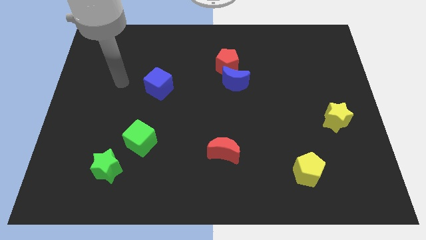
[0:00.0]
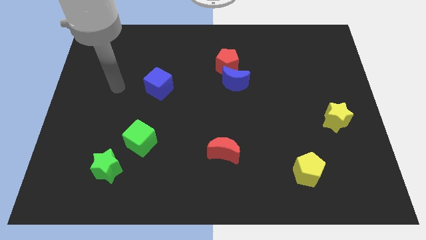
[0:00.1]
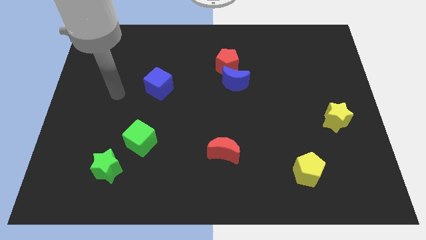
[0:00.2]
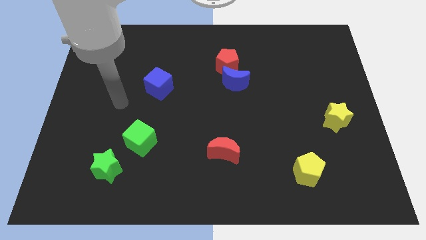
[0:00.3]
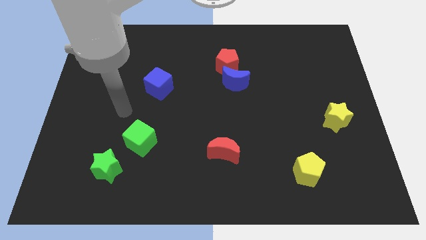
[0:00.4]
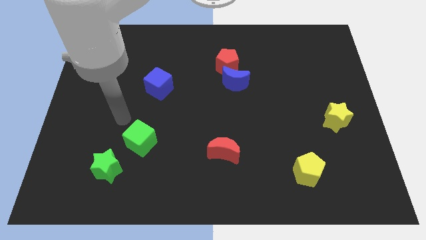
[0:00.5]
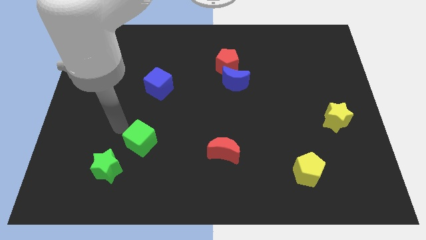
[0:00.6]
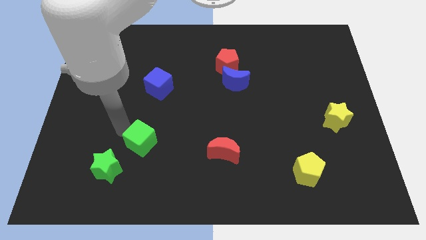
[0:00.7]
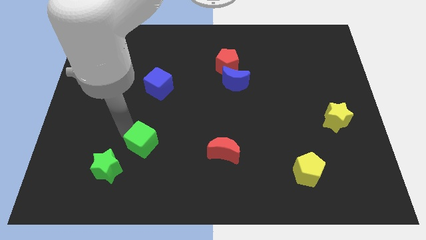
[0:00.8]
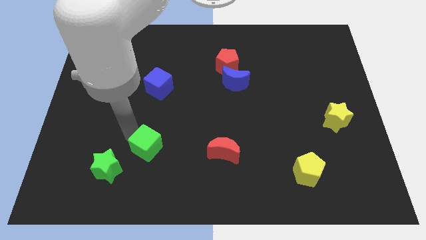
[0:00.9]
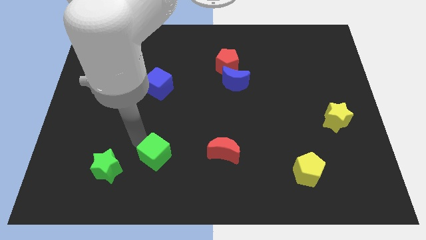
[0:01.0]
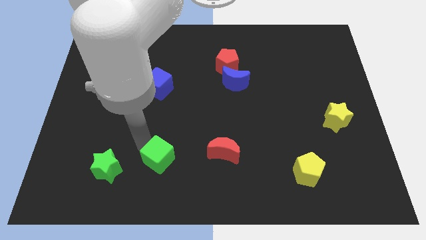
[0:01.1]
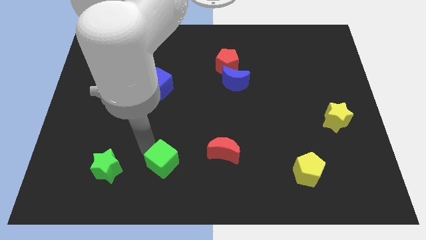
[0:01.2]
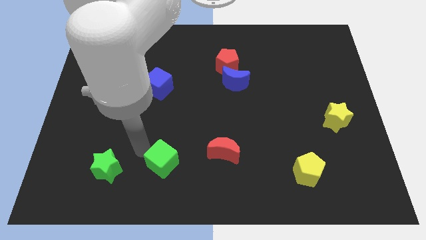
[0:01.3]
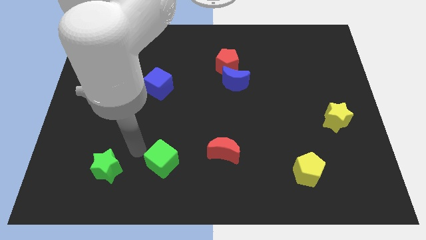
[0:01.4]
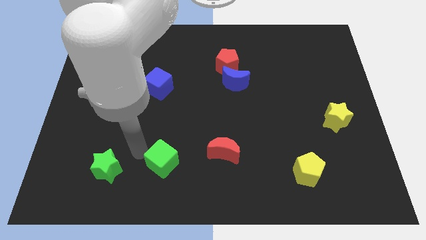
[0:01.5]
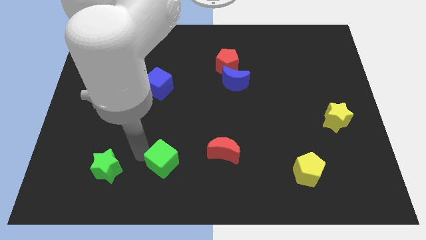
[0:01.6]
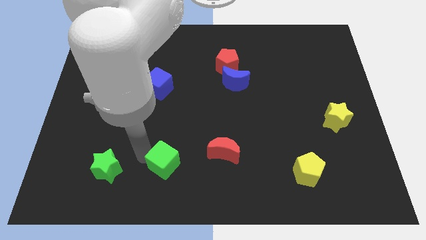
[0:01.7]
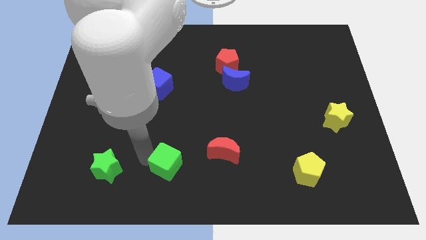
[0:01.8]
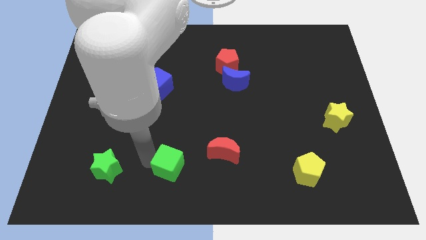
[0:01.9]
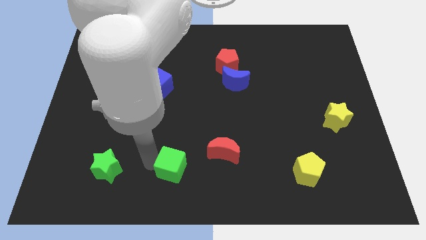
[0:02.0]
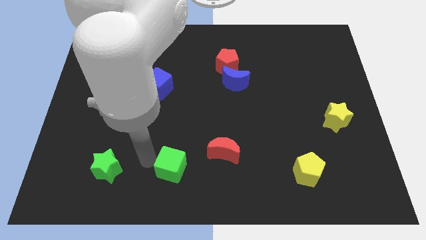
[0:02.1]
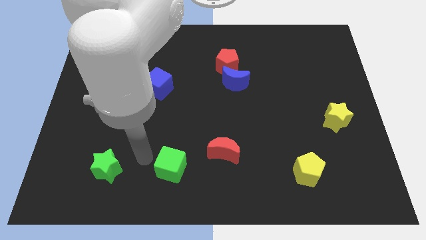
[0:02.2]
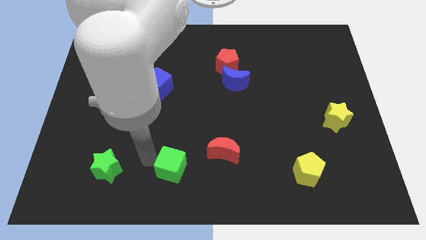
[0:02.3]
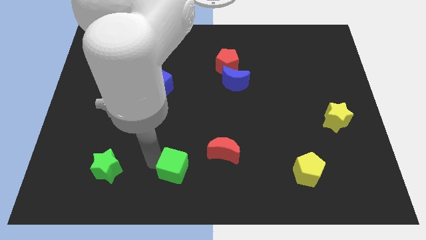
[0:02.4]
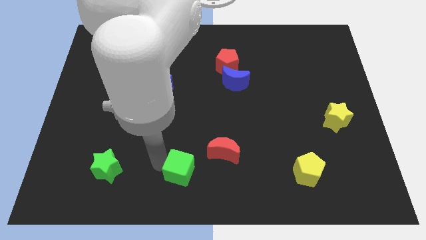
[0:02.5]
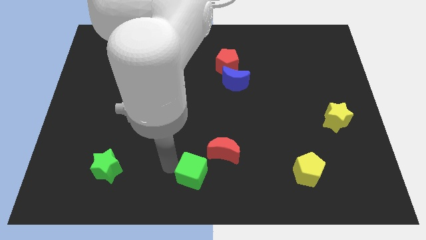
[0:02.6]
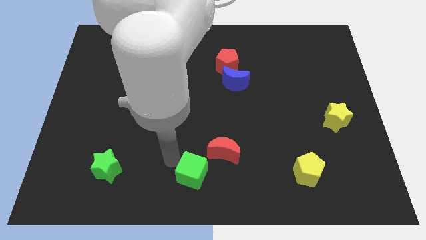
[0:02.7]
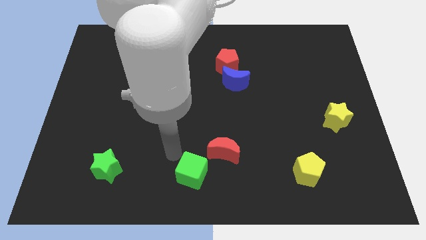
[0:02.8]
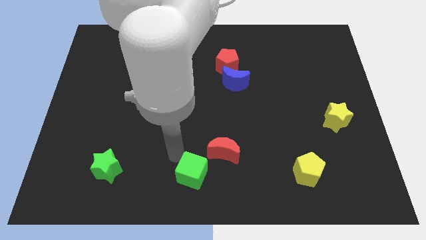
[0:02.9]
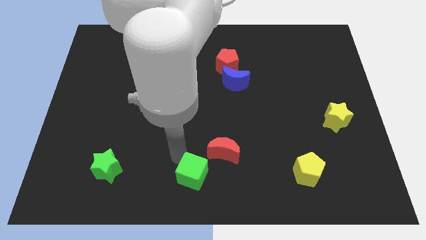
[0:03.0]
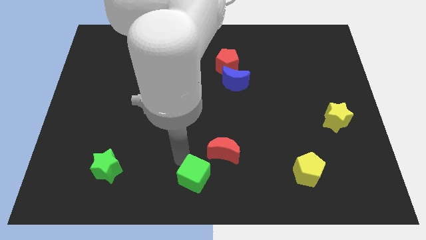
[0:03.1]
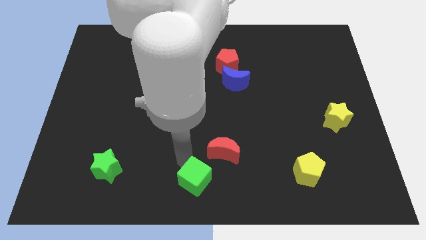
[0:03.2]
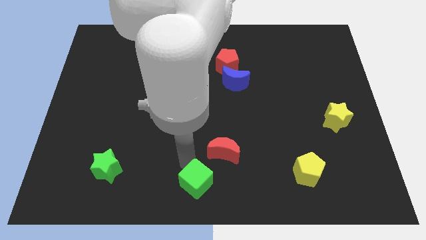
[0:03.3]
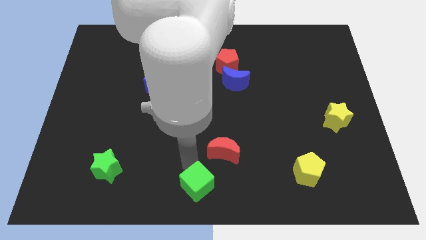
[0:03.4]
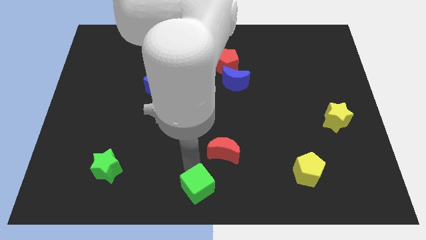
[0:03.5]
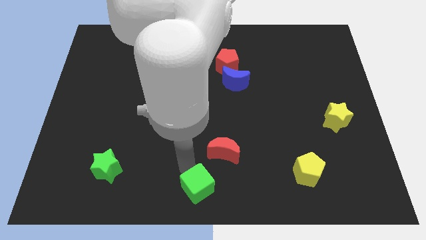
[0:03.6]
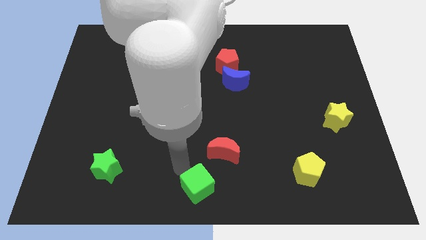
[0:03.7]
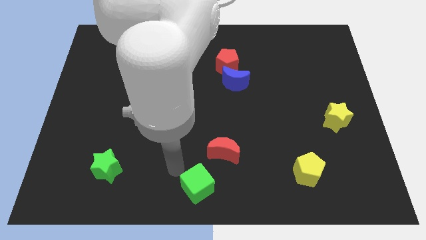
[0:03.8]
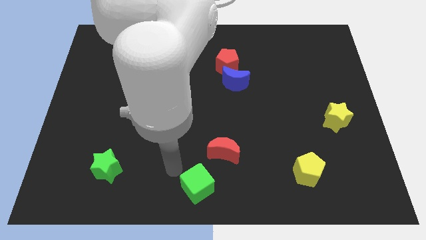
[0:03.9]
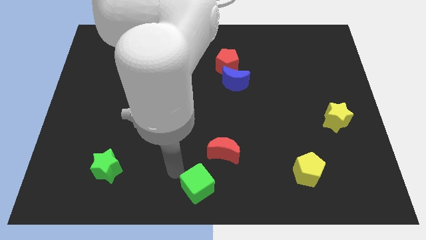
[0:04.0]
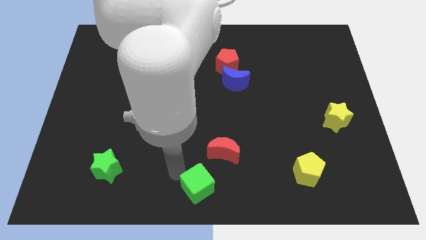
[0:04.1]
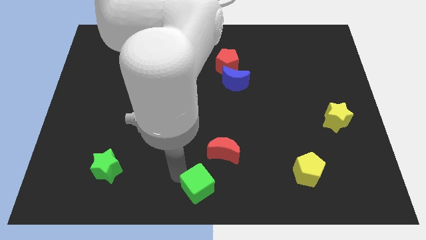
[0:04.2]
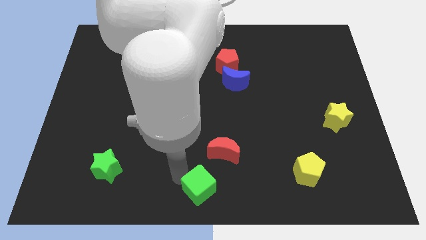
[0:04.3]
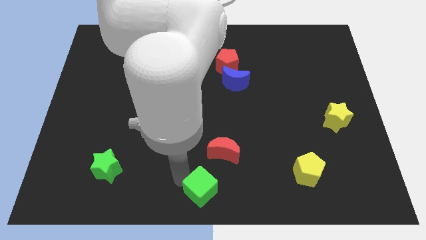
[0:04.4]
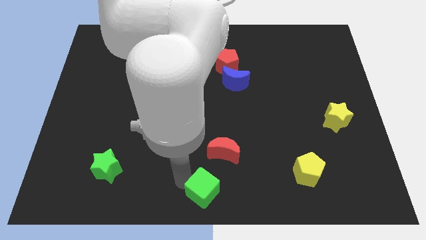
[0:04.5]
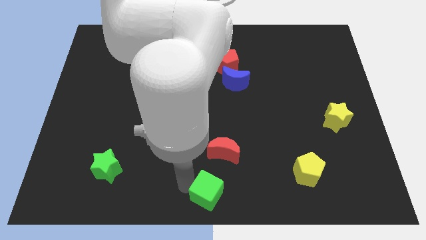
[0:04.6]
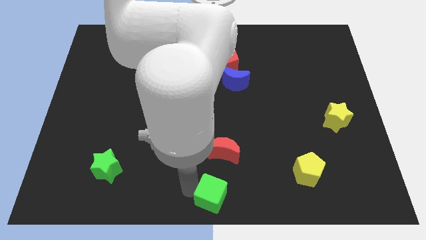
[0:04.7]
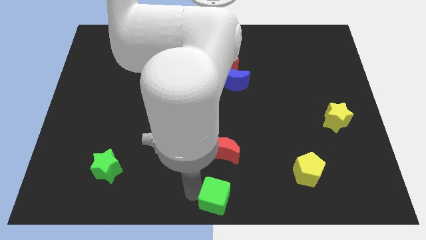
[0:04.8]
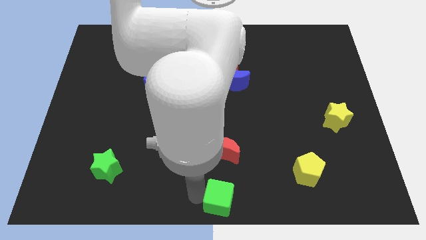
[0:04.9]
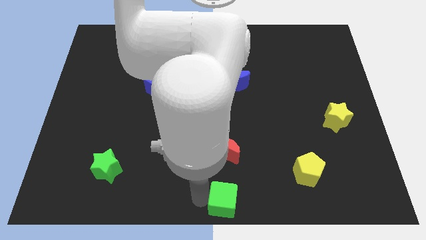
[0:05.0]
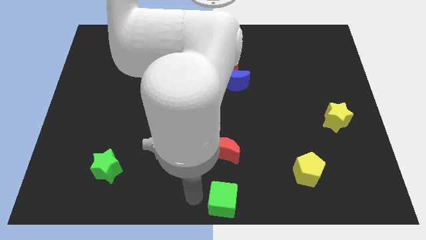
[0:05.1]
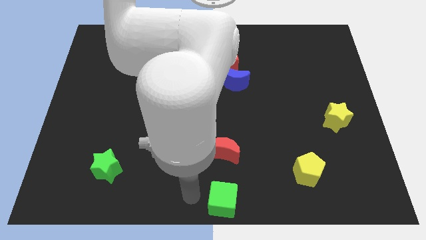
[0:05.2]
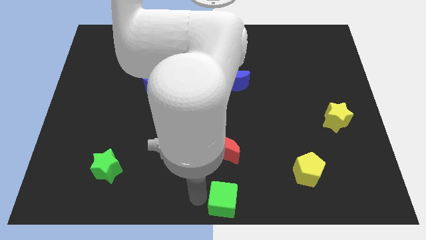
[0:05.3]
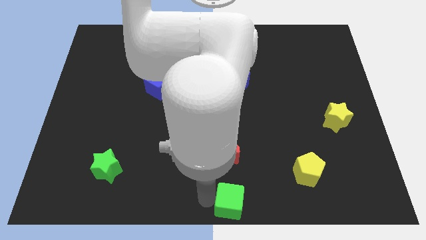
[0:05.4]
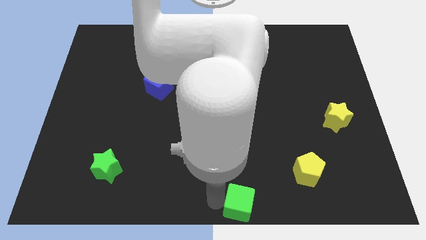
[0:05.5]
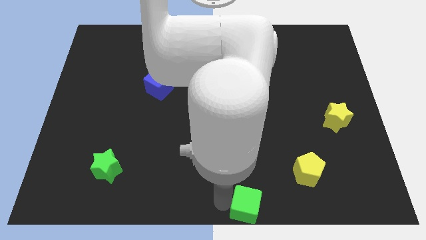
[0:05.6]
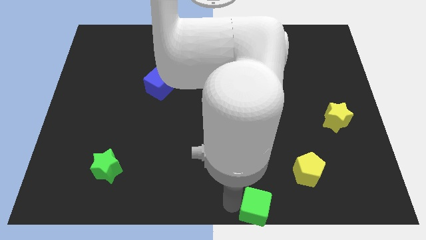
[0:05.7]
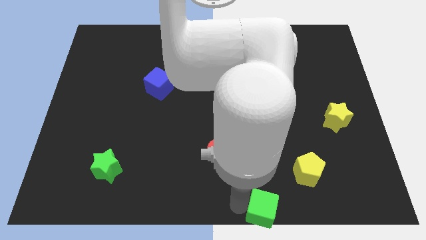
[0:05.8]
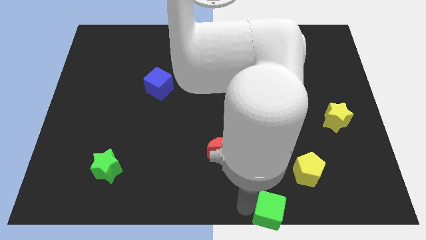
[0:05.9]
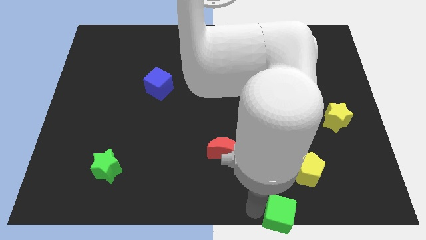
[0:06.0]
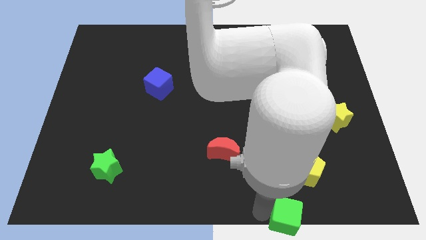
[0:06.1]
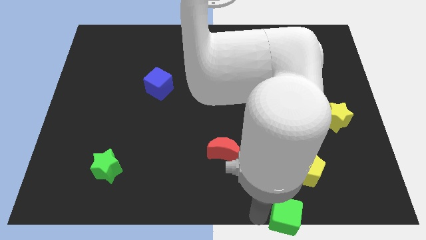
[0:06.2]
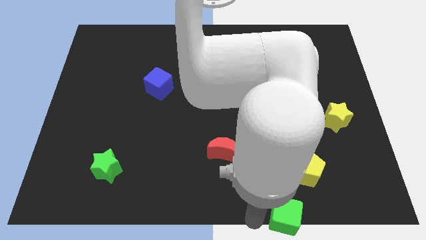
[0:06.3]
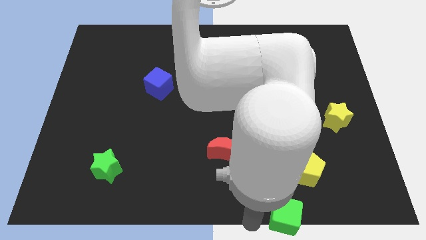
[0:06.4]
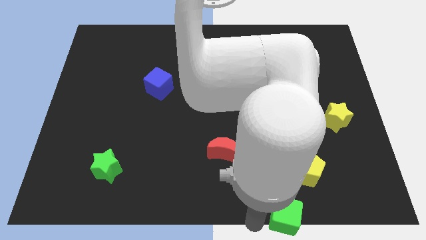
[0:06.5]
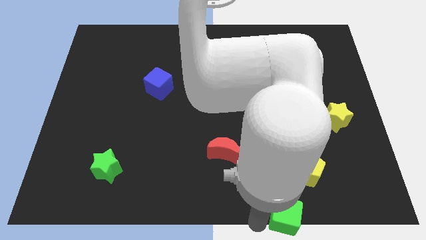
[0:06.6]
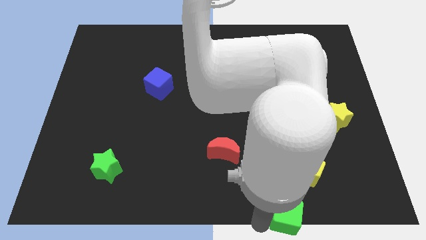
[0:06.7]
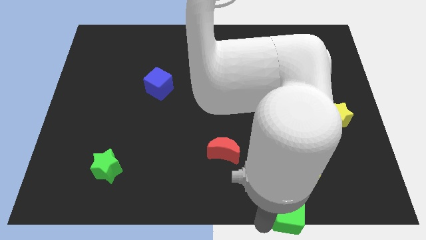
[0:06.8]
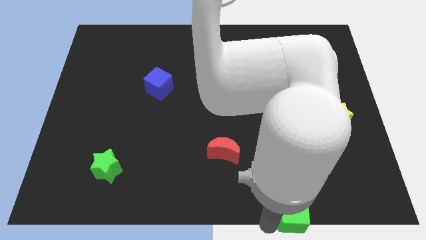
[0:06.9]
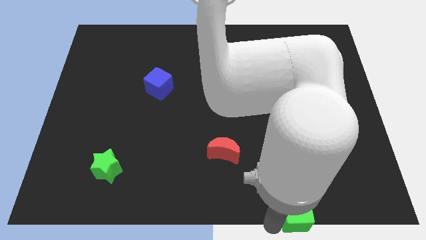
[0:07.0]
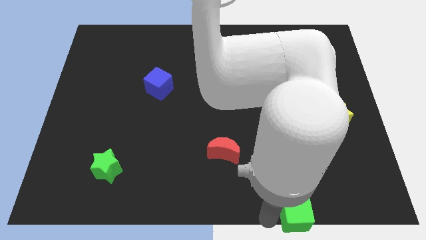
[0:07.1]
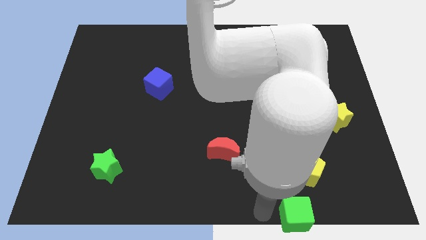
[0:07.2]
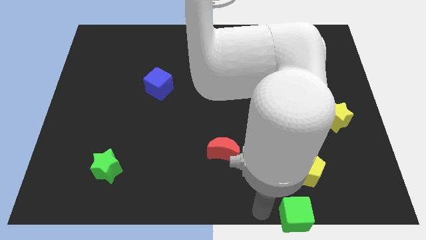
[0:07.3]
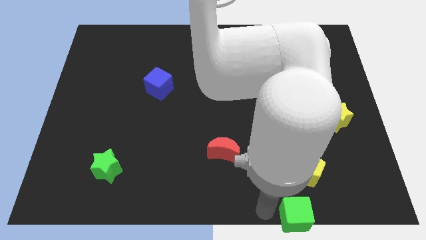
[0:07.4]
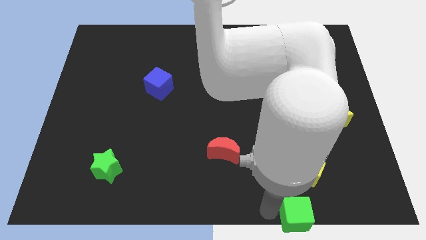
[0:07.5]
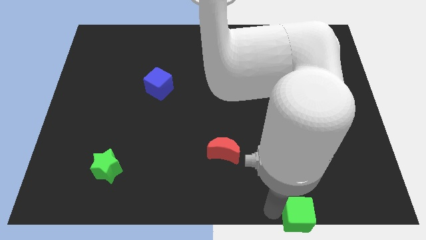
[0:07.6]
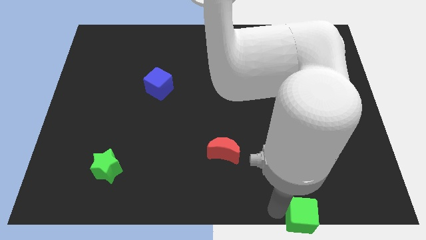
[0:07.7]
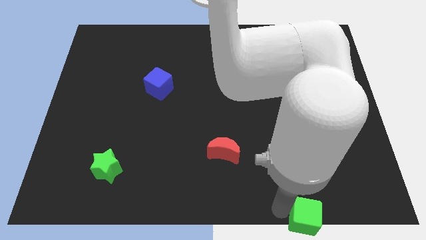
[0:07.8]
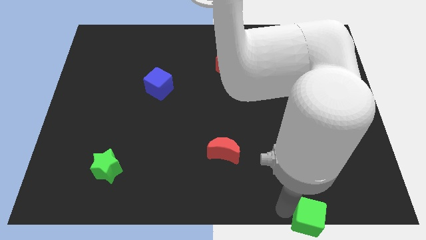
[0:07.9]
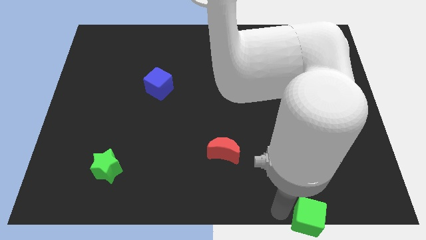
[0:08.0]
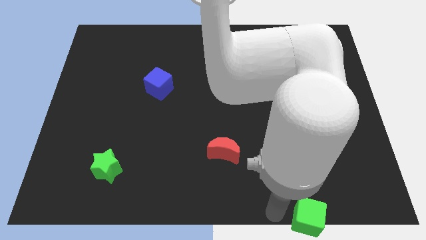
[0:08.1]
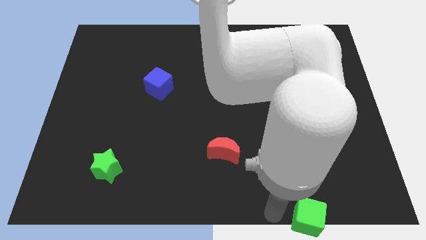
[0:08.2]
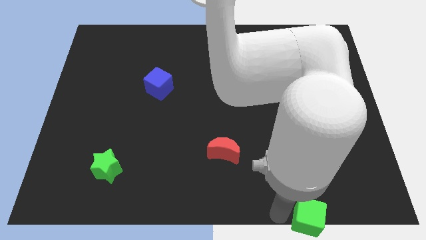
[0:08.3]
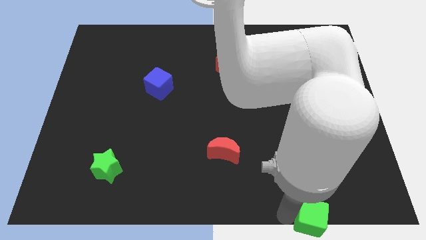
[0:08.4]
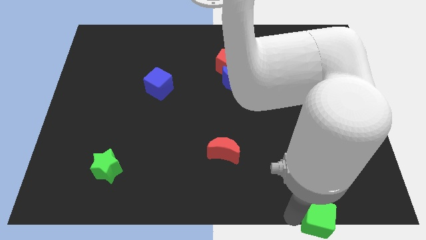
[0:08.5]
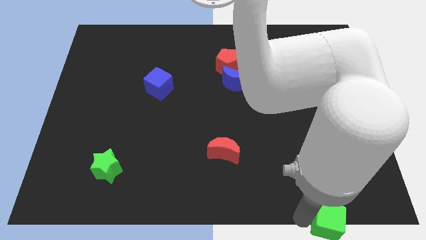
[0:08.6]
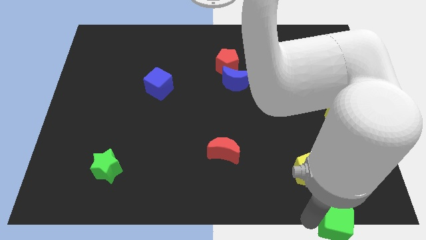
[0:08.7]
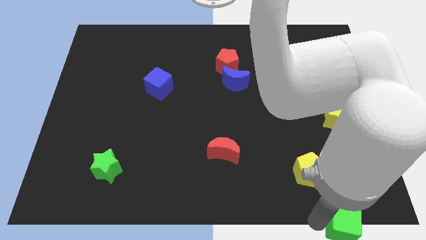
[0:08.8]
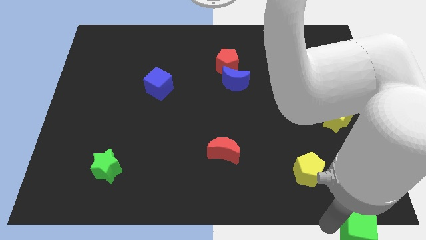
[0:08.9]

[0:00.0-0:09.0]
move the green cube to the bottom right of the board
